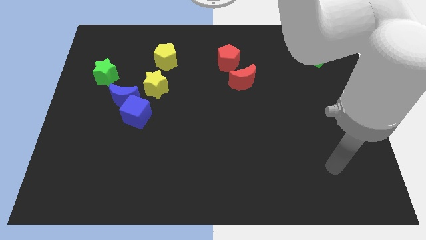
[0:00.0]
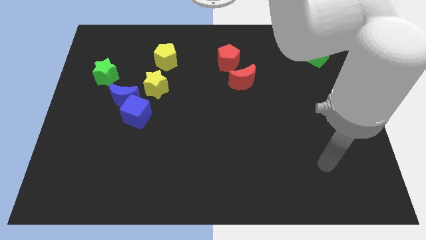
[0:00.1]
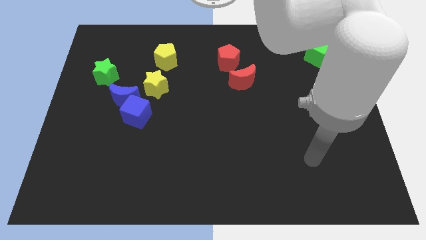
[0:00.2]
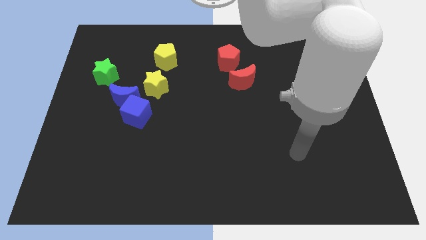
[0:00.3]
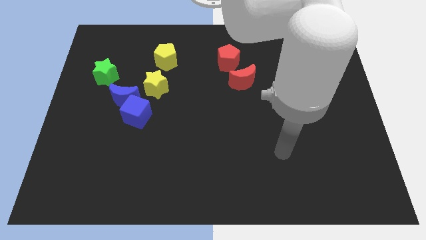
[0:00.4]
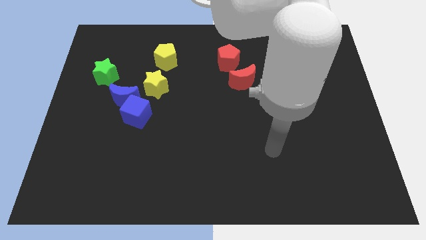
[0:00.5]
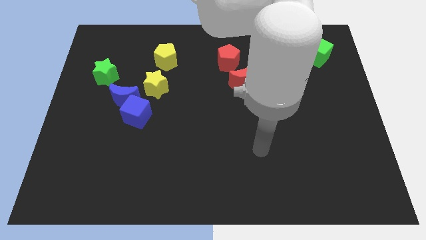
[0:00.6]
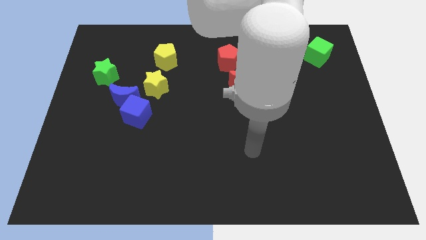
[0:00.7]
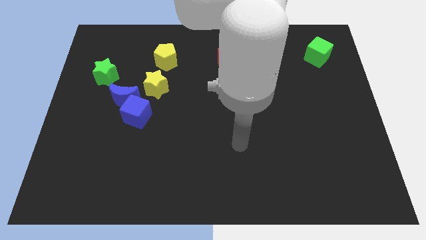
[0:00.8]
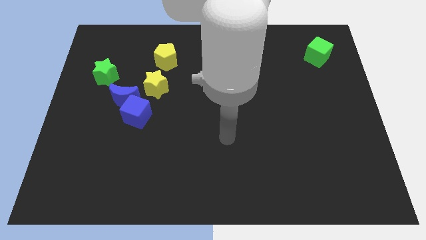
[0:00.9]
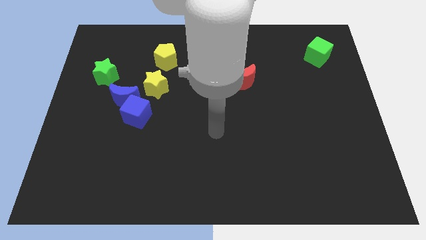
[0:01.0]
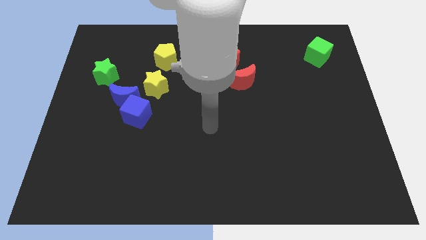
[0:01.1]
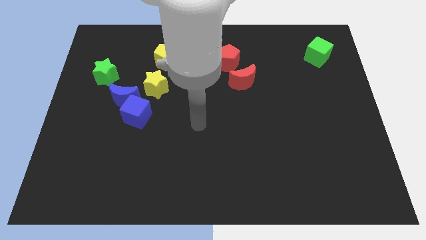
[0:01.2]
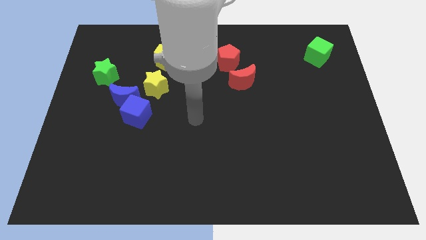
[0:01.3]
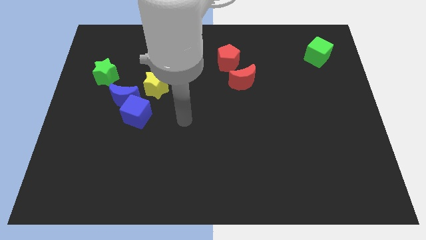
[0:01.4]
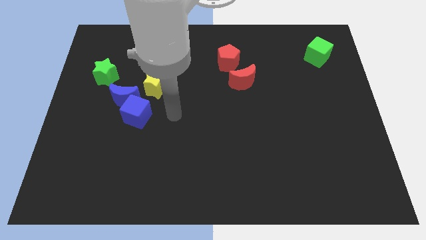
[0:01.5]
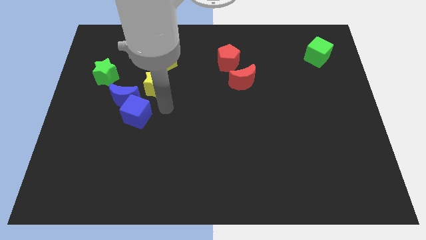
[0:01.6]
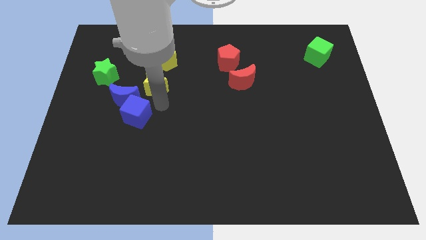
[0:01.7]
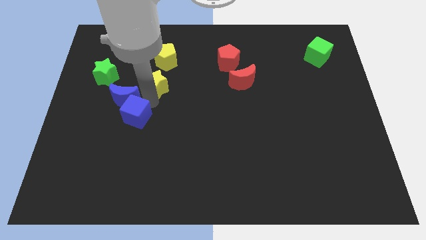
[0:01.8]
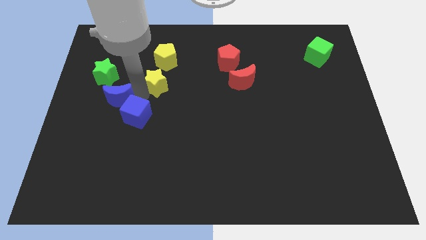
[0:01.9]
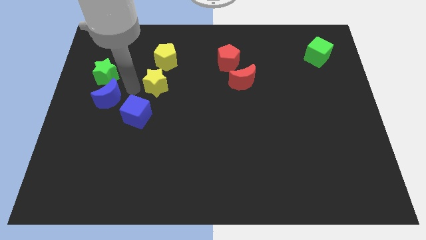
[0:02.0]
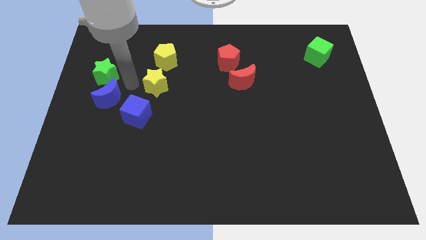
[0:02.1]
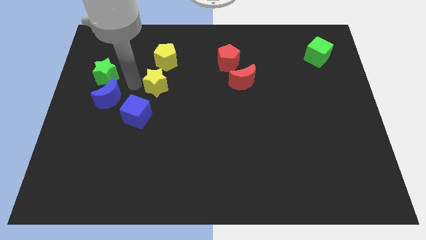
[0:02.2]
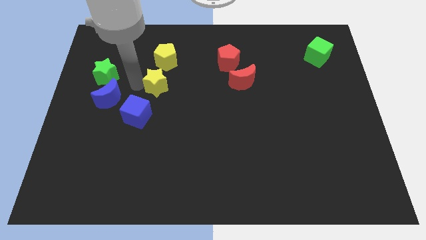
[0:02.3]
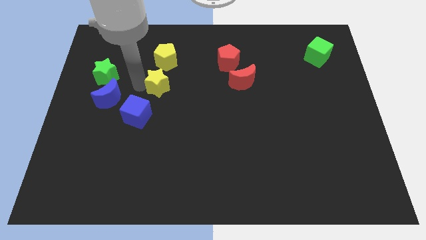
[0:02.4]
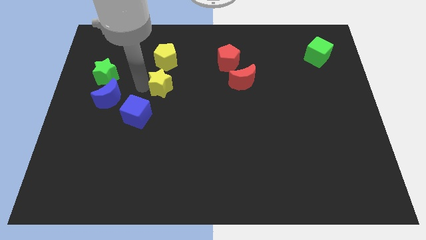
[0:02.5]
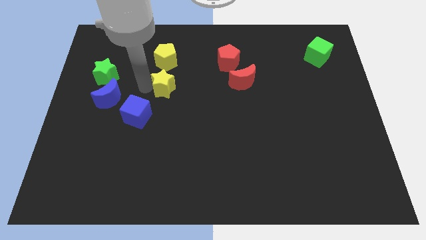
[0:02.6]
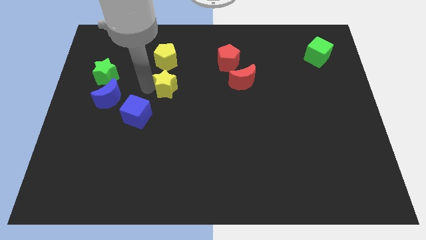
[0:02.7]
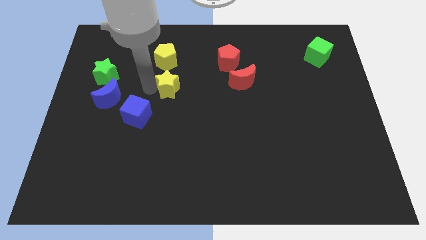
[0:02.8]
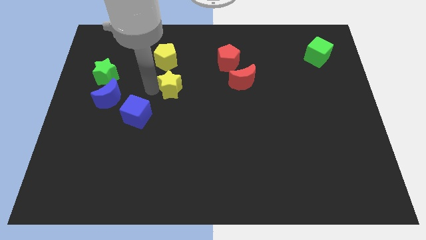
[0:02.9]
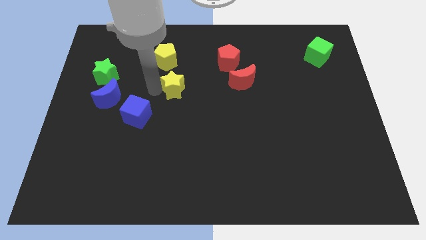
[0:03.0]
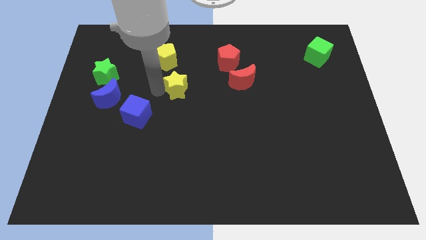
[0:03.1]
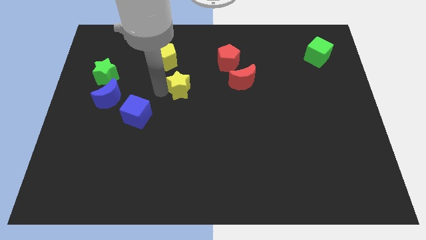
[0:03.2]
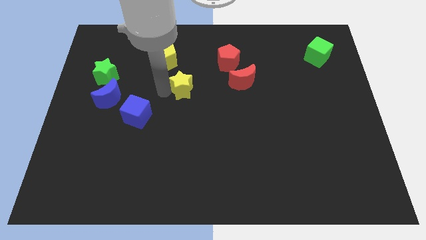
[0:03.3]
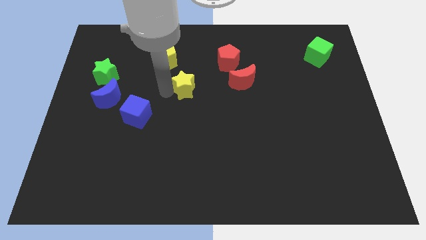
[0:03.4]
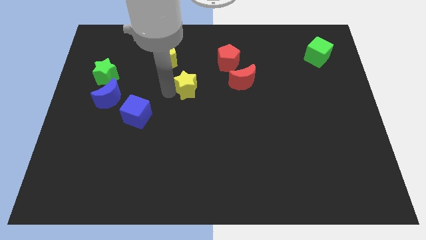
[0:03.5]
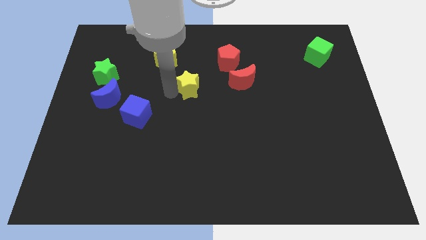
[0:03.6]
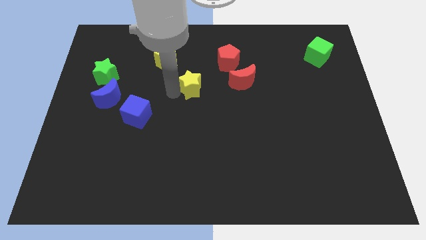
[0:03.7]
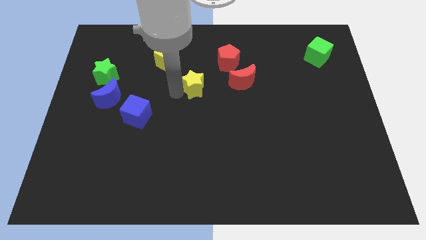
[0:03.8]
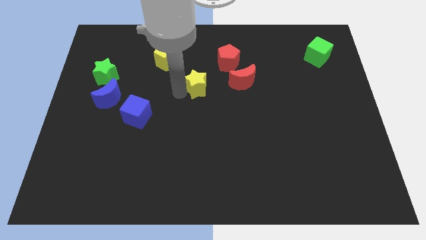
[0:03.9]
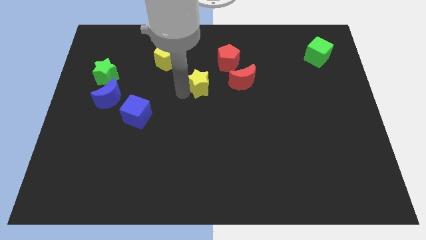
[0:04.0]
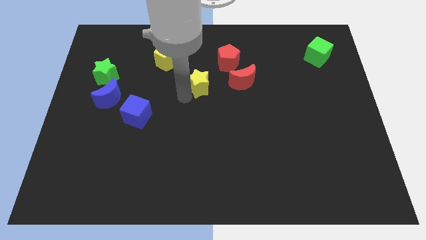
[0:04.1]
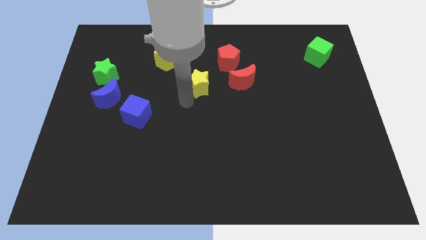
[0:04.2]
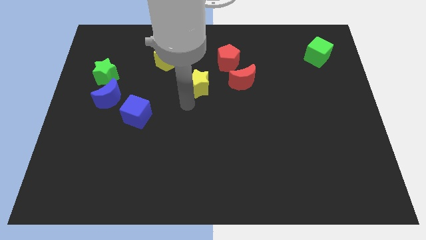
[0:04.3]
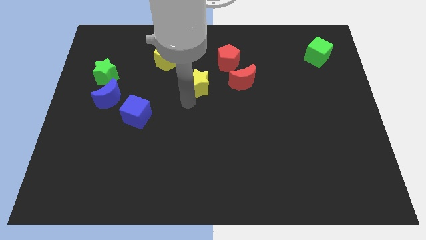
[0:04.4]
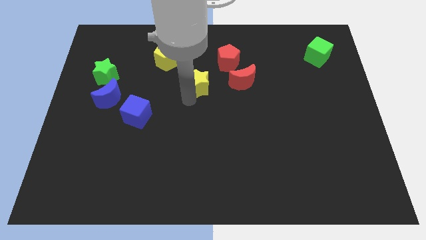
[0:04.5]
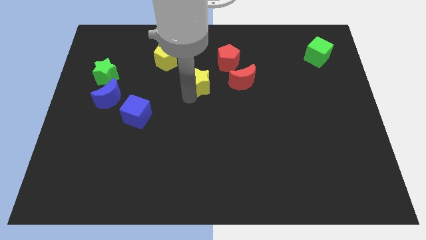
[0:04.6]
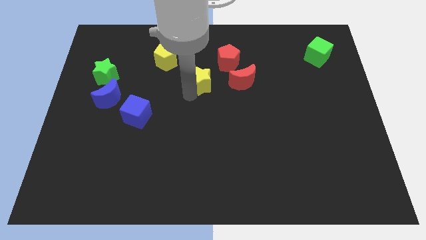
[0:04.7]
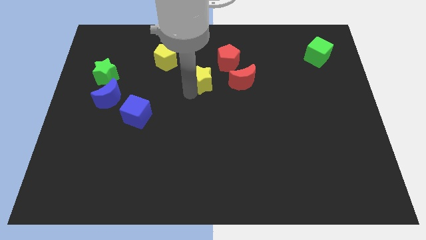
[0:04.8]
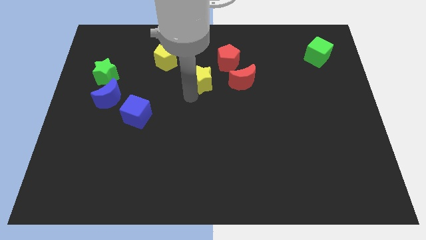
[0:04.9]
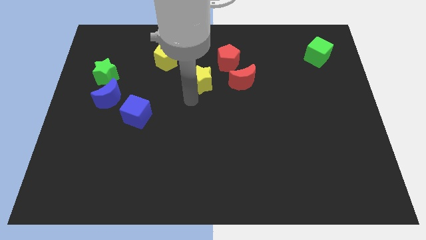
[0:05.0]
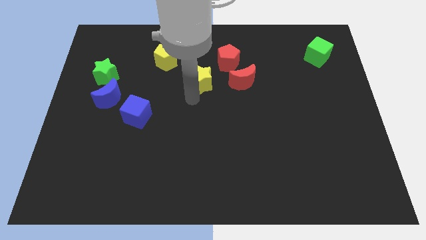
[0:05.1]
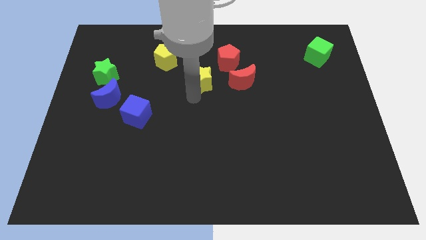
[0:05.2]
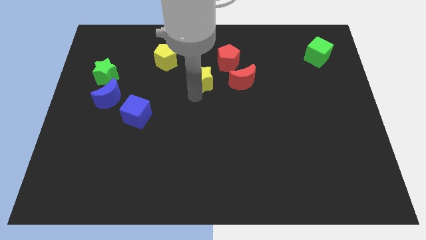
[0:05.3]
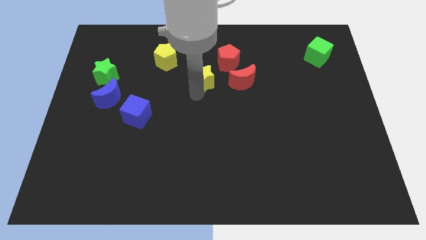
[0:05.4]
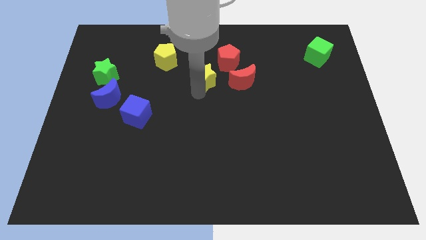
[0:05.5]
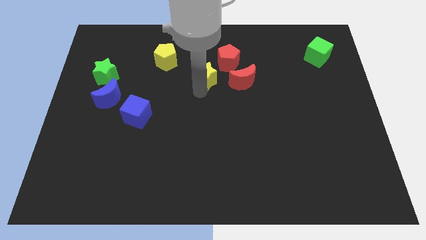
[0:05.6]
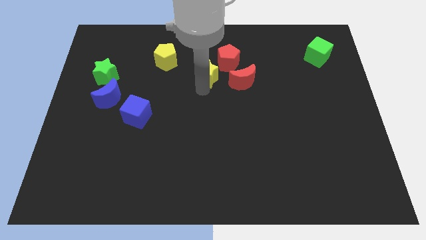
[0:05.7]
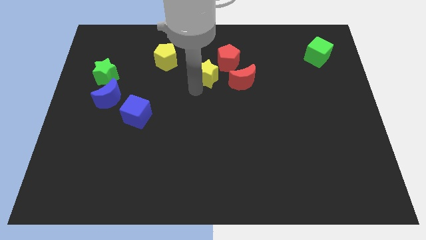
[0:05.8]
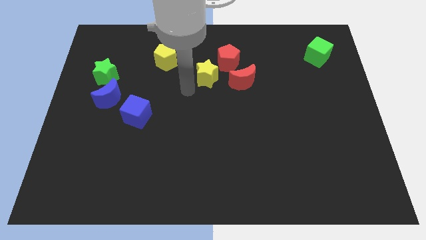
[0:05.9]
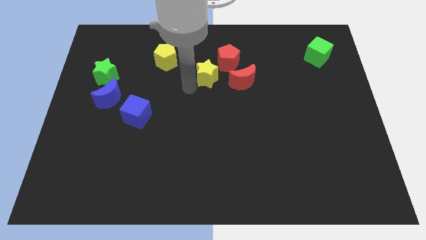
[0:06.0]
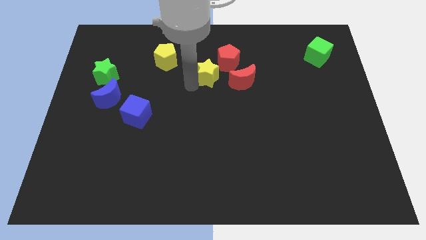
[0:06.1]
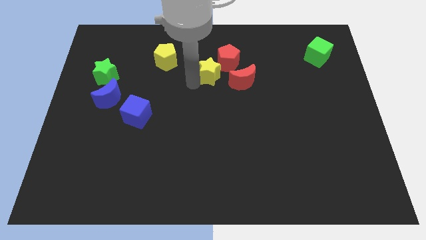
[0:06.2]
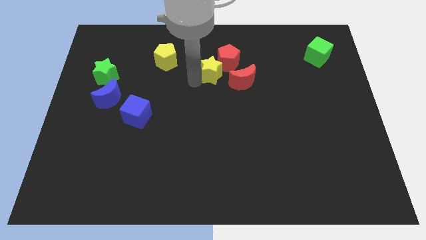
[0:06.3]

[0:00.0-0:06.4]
put the yellow star to the red pentagon

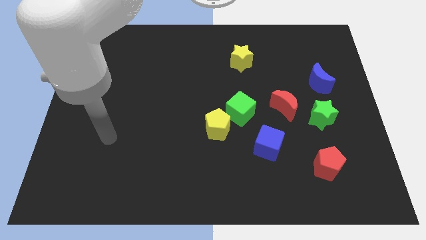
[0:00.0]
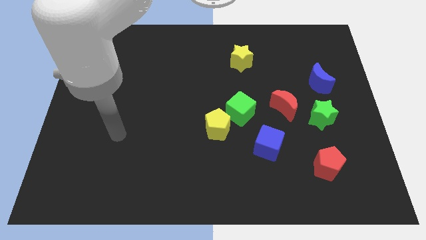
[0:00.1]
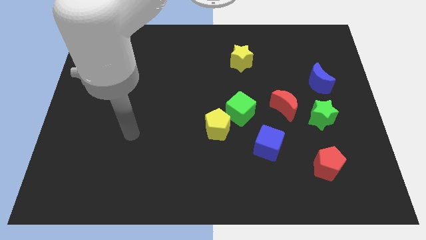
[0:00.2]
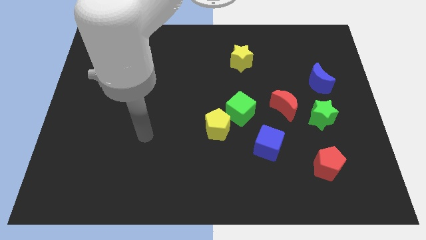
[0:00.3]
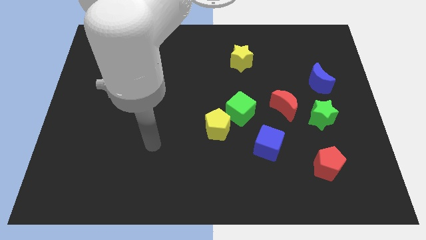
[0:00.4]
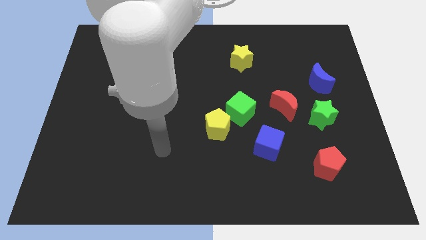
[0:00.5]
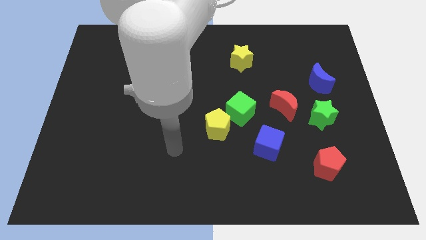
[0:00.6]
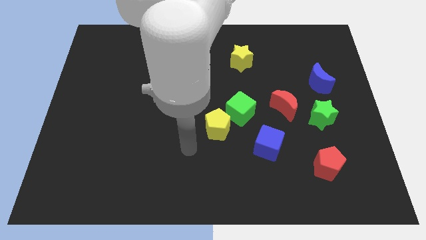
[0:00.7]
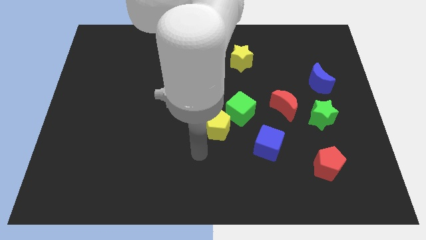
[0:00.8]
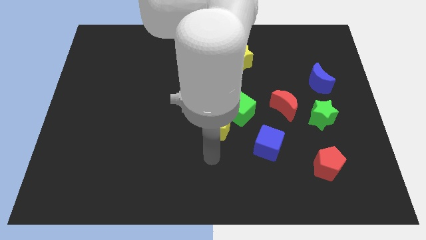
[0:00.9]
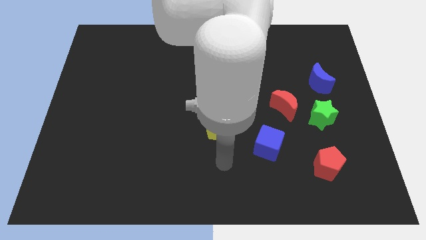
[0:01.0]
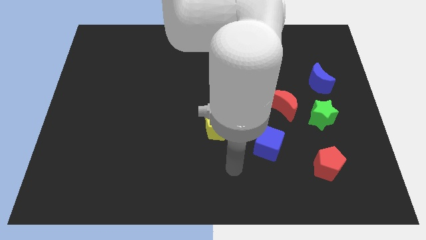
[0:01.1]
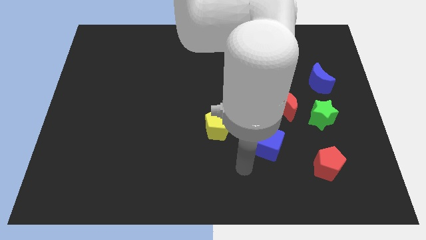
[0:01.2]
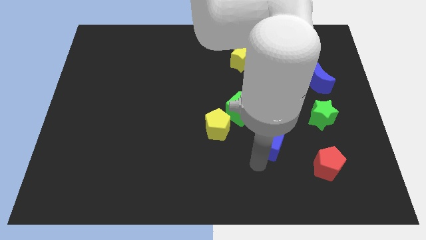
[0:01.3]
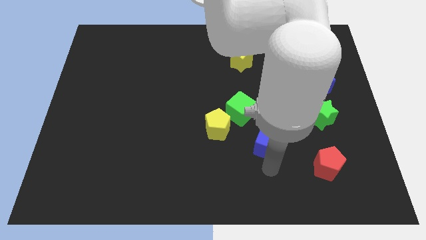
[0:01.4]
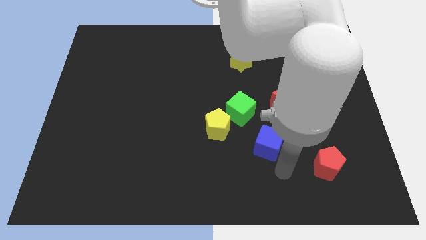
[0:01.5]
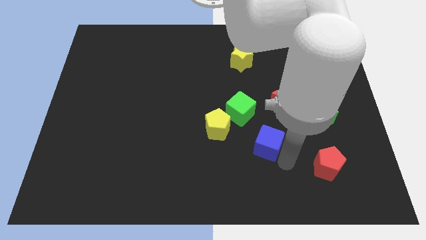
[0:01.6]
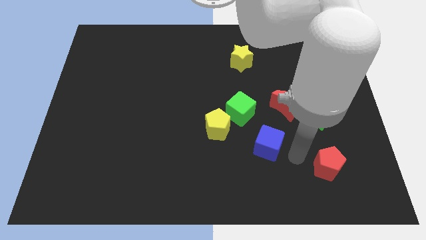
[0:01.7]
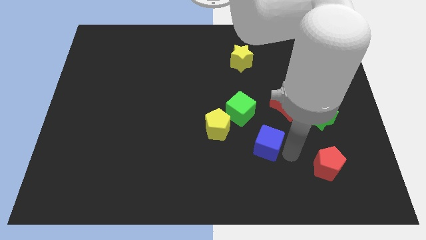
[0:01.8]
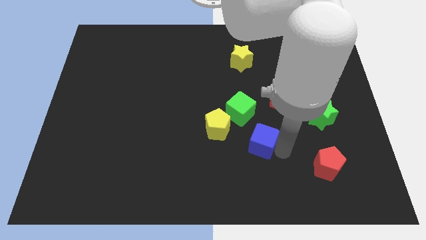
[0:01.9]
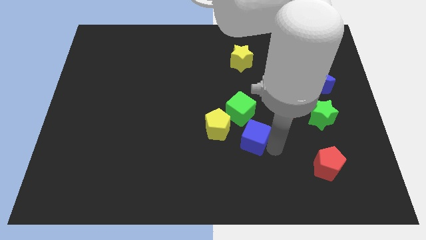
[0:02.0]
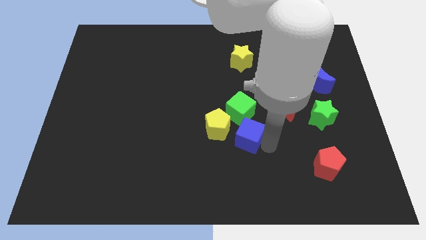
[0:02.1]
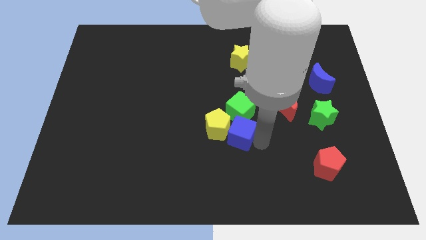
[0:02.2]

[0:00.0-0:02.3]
move the blue cube next to the yellow pentagon
